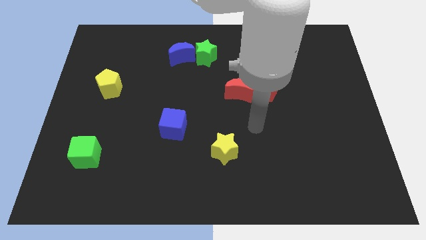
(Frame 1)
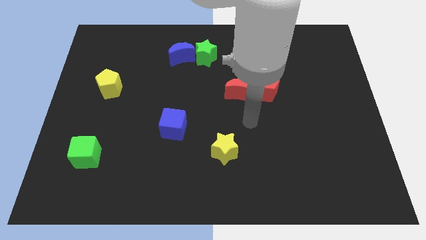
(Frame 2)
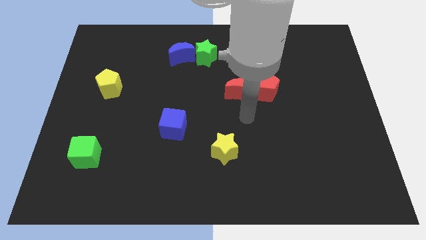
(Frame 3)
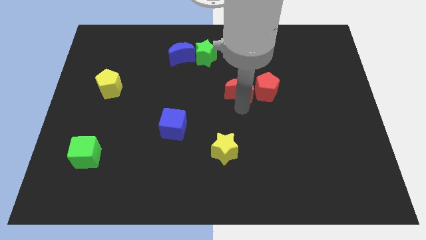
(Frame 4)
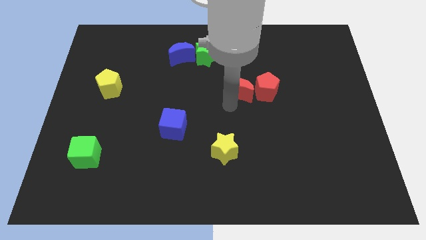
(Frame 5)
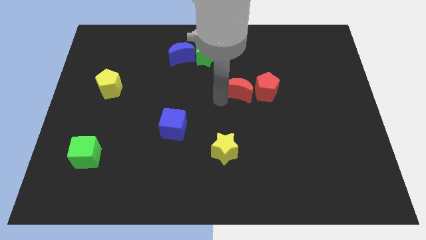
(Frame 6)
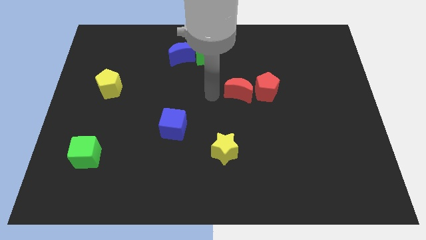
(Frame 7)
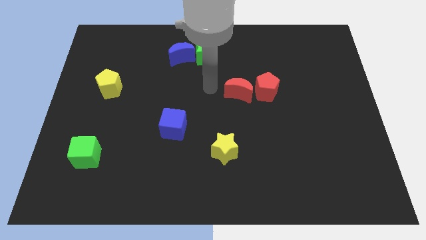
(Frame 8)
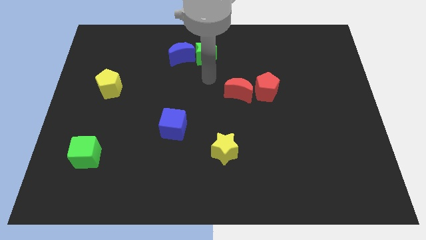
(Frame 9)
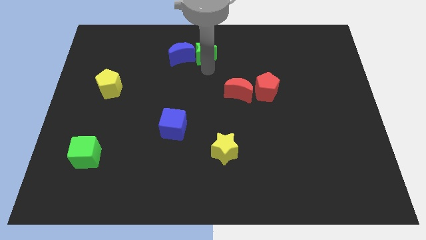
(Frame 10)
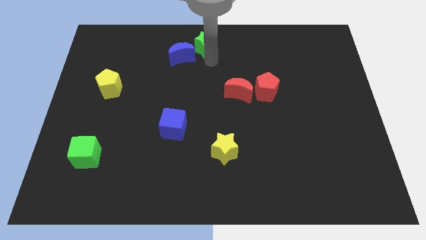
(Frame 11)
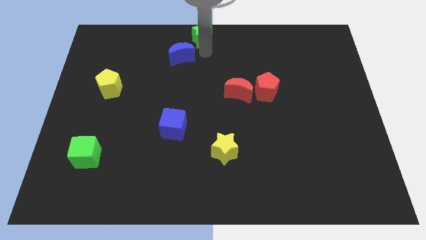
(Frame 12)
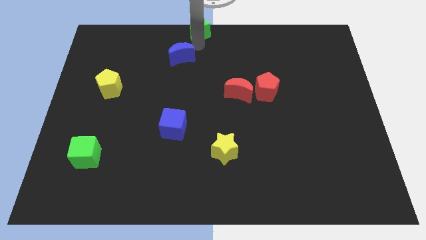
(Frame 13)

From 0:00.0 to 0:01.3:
pull the blue moon apart from the green star

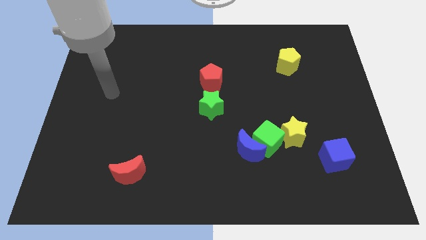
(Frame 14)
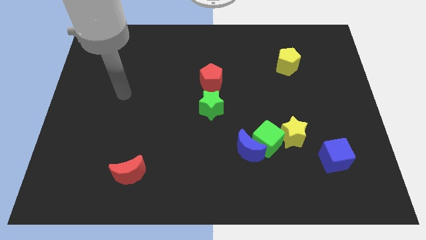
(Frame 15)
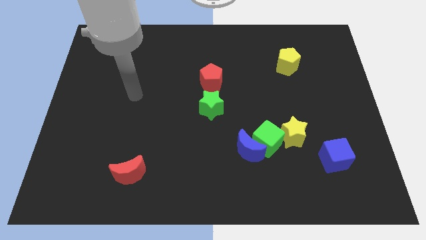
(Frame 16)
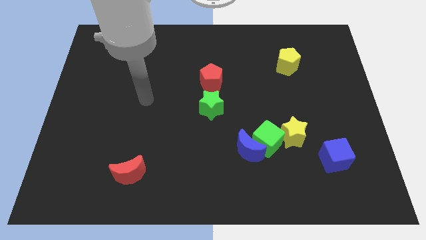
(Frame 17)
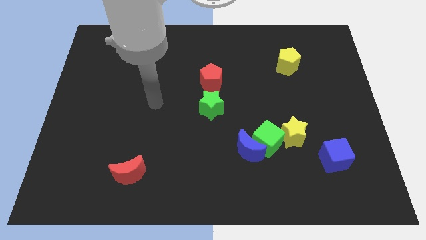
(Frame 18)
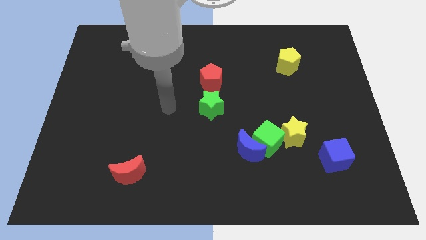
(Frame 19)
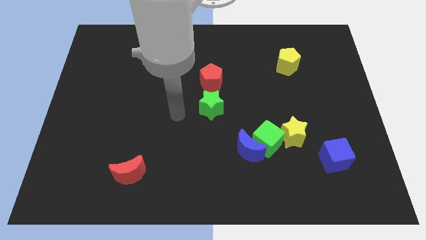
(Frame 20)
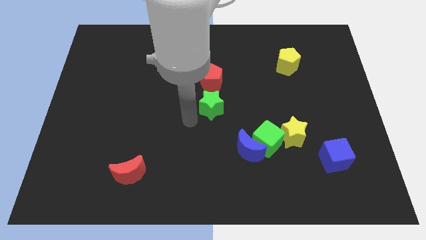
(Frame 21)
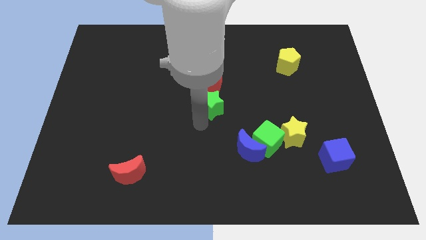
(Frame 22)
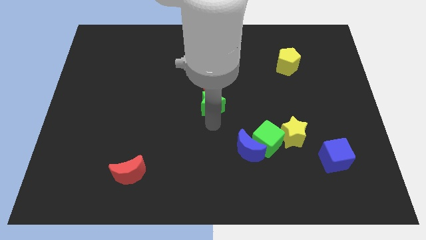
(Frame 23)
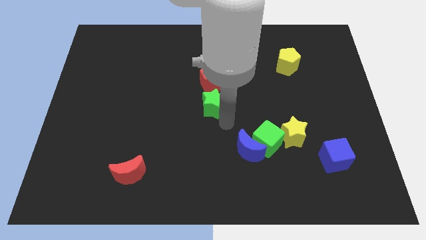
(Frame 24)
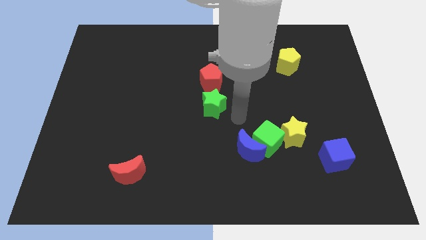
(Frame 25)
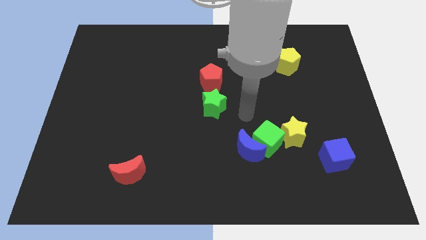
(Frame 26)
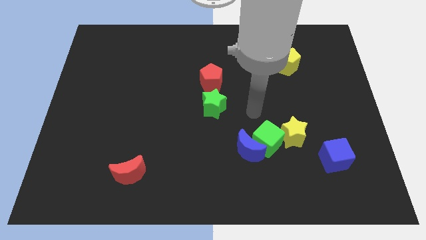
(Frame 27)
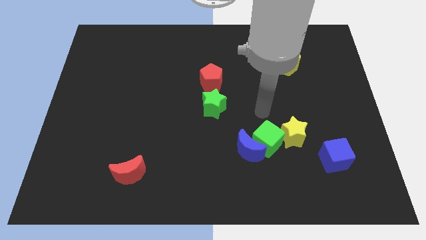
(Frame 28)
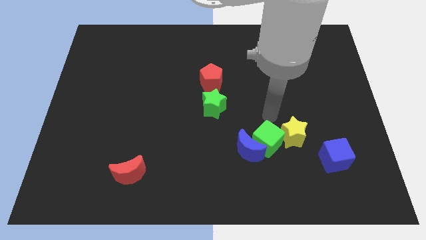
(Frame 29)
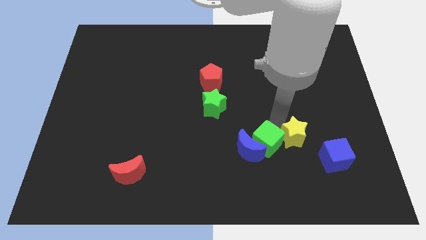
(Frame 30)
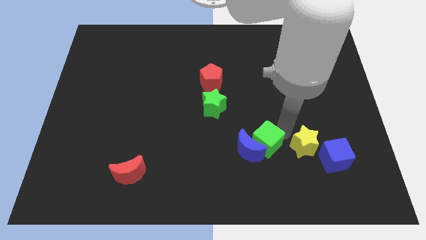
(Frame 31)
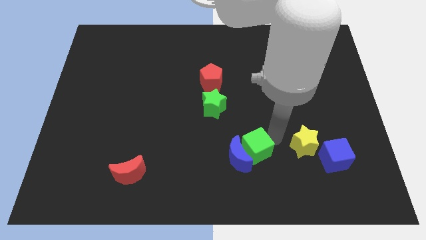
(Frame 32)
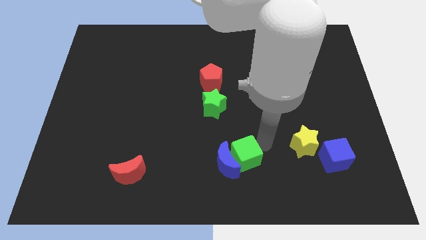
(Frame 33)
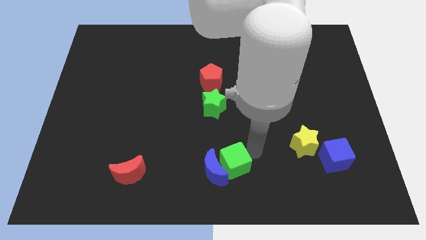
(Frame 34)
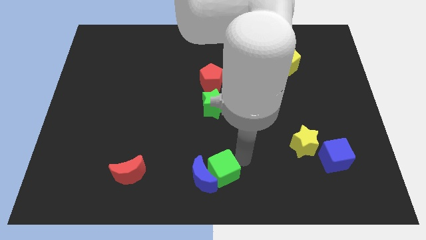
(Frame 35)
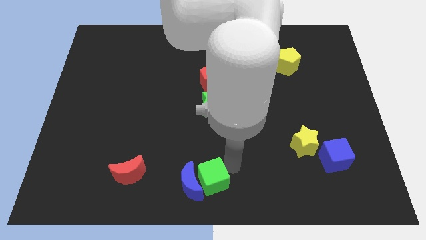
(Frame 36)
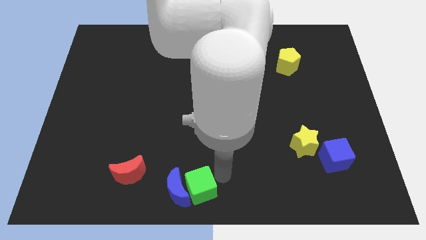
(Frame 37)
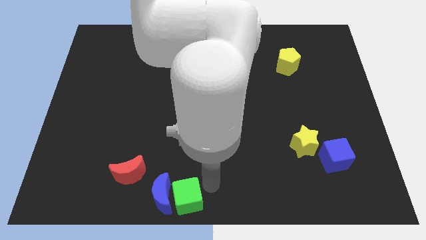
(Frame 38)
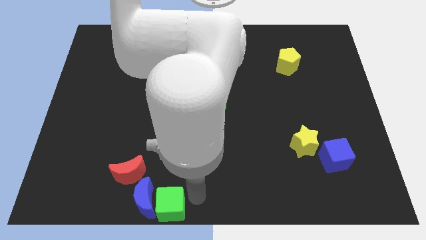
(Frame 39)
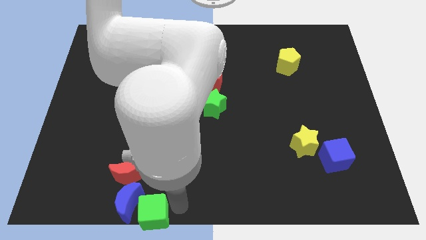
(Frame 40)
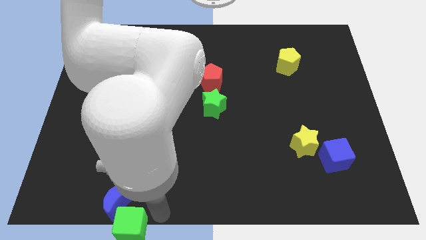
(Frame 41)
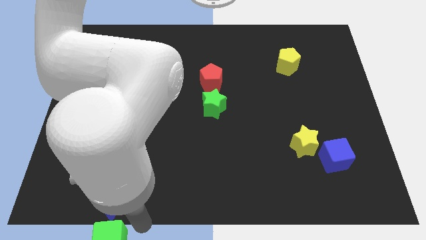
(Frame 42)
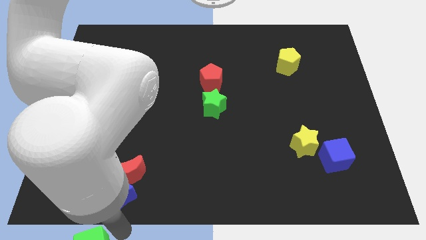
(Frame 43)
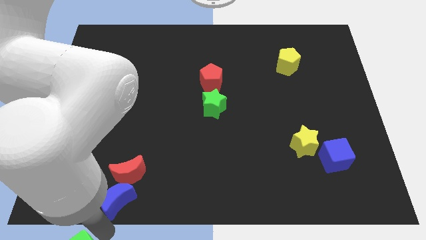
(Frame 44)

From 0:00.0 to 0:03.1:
move the blue moon away from the green cube

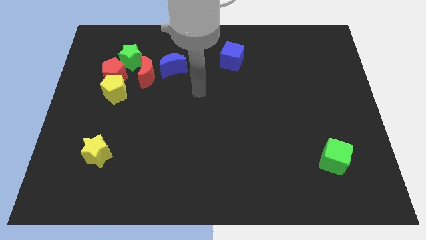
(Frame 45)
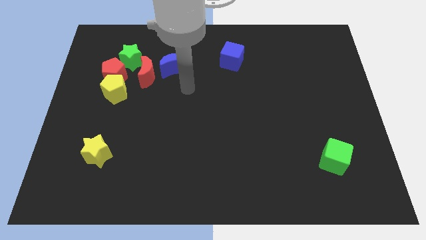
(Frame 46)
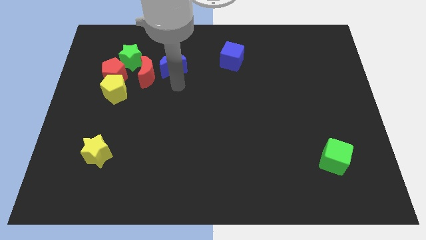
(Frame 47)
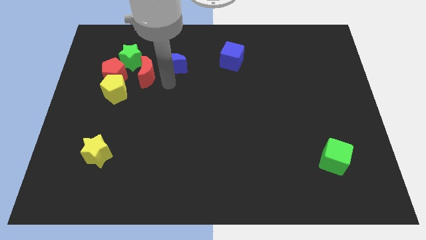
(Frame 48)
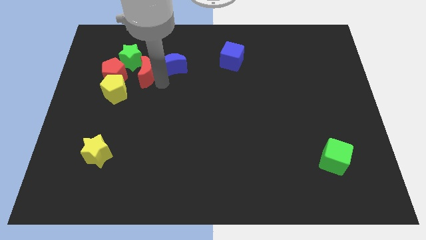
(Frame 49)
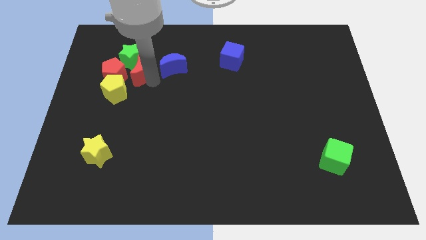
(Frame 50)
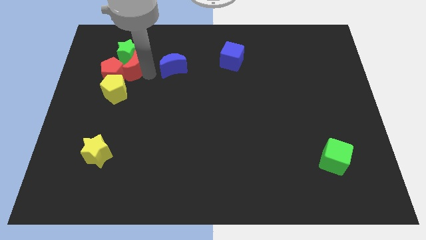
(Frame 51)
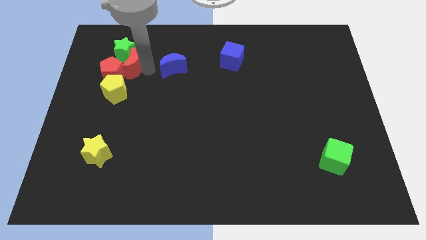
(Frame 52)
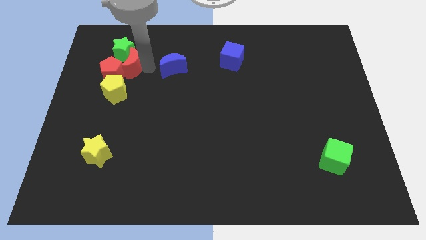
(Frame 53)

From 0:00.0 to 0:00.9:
move the blue moon away from the red moon

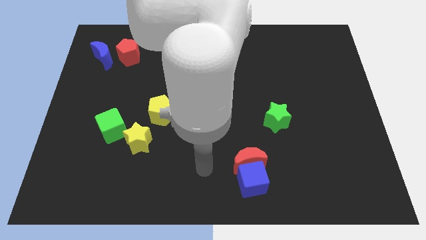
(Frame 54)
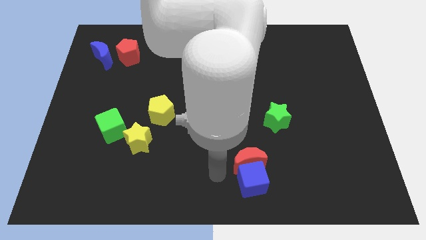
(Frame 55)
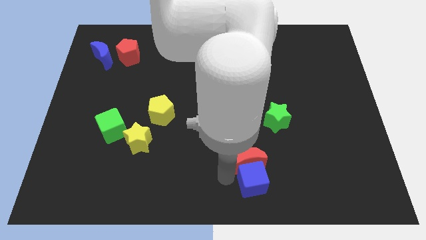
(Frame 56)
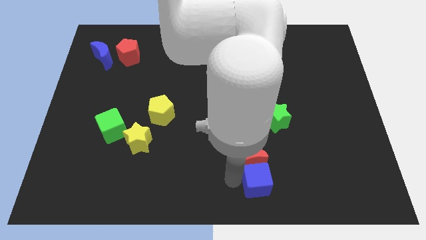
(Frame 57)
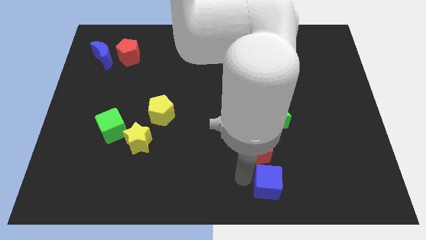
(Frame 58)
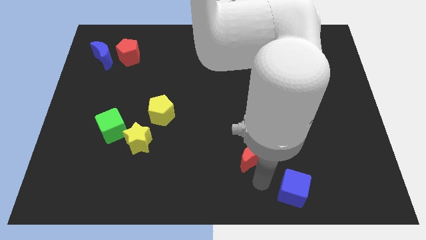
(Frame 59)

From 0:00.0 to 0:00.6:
move the red moon away from the blue cube

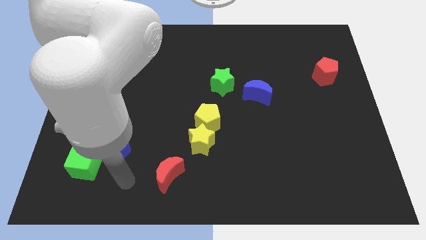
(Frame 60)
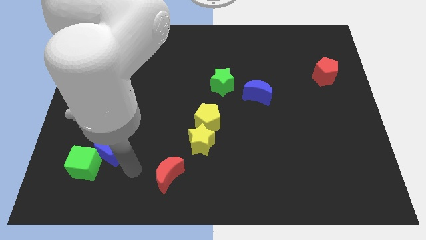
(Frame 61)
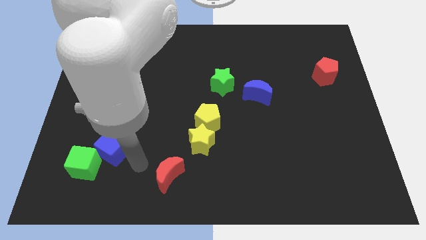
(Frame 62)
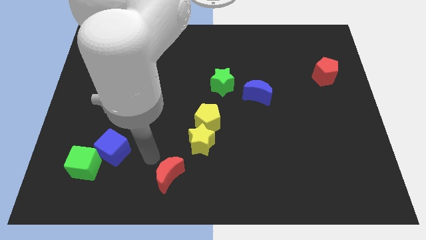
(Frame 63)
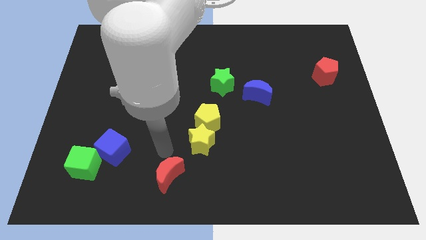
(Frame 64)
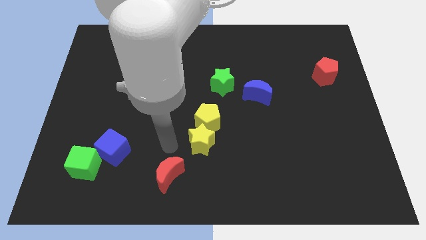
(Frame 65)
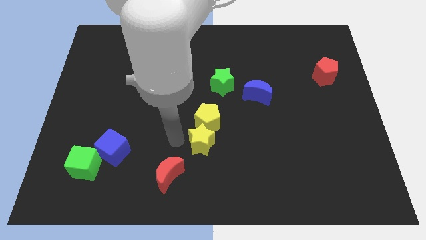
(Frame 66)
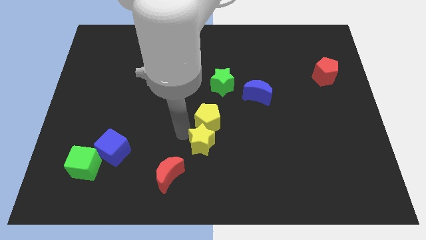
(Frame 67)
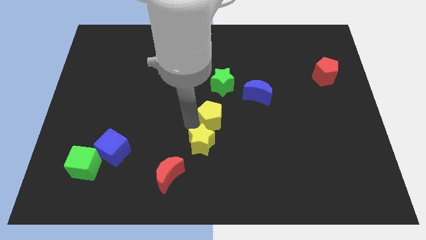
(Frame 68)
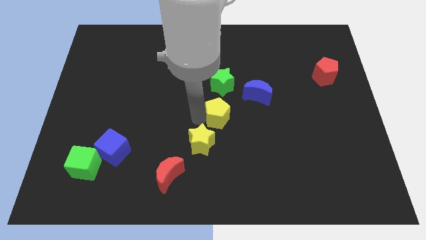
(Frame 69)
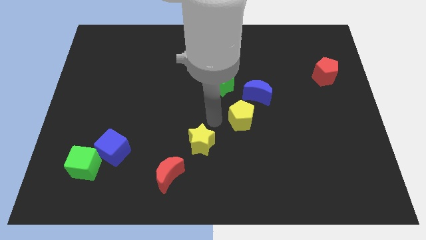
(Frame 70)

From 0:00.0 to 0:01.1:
separate the yellow star from the yellow pentagon

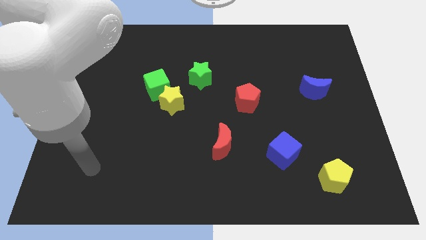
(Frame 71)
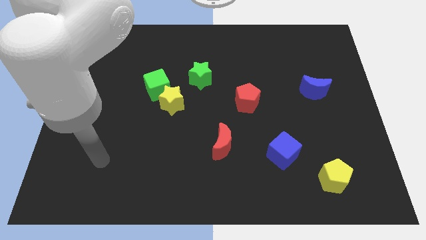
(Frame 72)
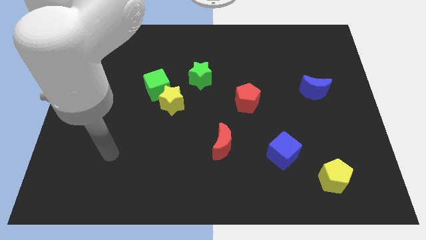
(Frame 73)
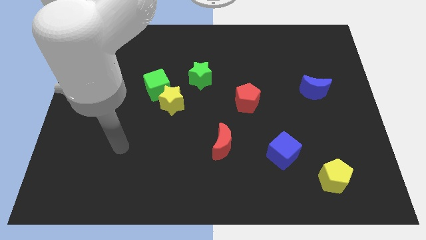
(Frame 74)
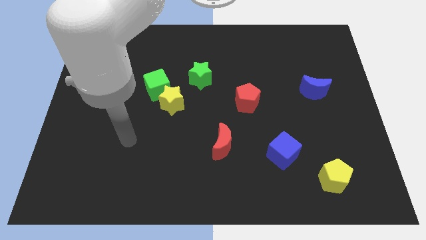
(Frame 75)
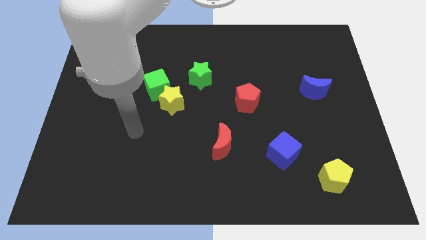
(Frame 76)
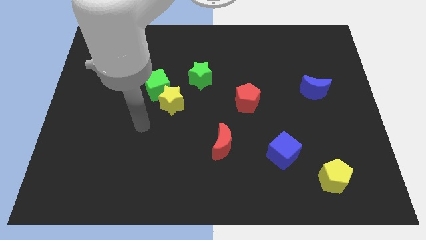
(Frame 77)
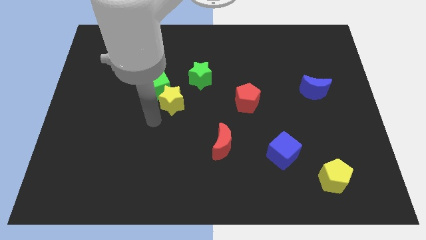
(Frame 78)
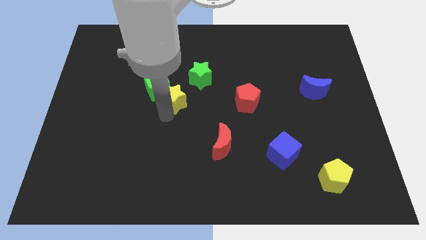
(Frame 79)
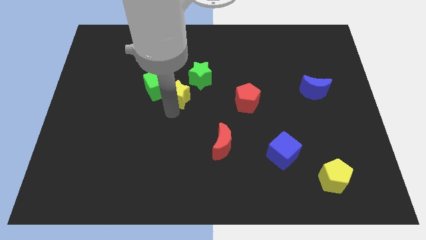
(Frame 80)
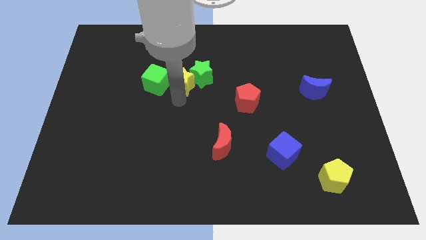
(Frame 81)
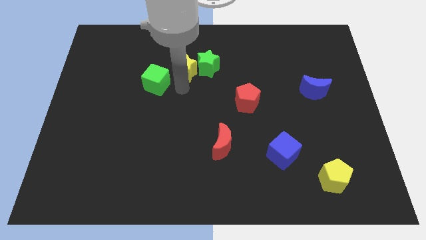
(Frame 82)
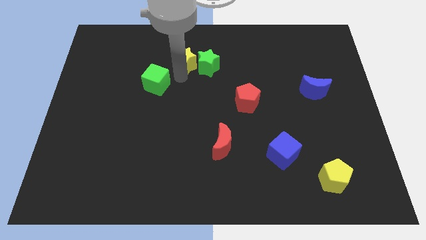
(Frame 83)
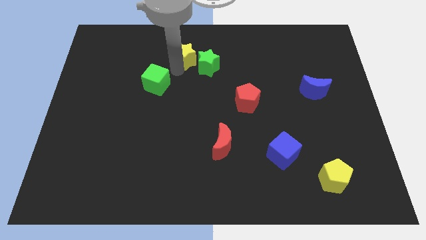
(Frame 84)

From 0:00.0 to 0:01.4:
pull the green cube apart from the yellow star

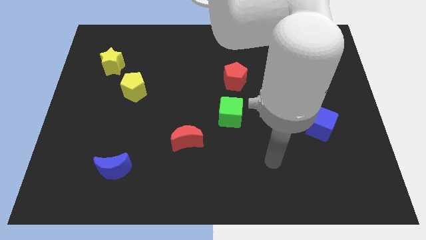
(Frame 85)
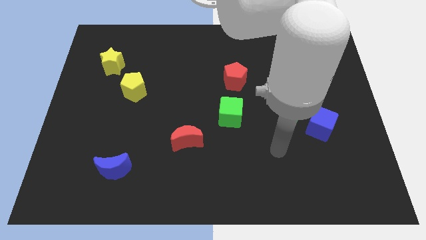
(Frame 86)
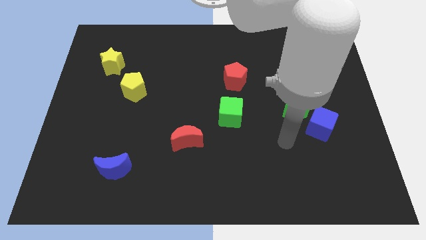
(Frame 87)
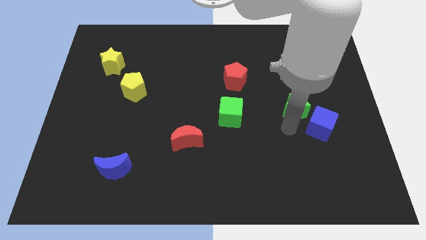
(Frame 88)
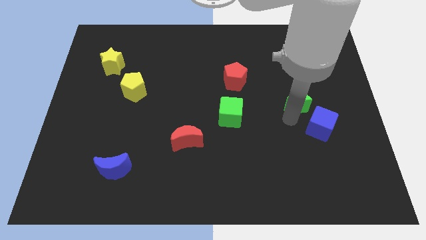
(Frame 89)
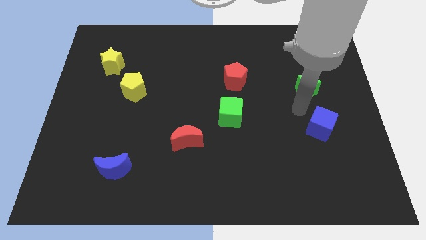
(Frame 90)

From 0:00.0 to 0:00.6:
separate the blue cube from the green star

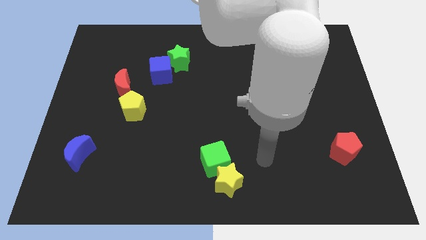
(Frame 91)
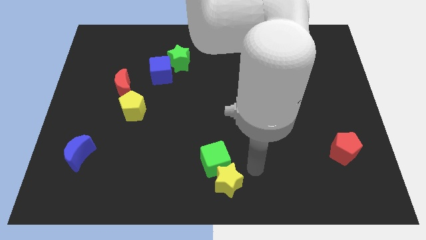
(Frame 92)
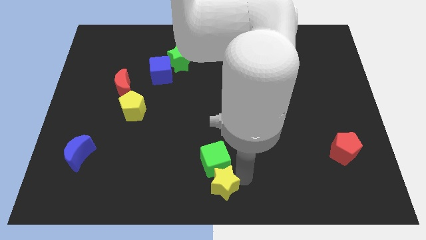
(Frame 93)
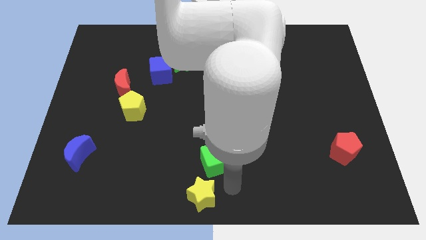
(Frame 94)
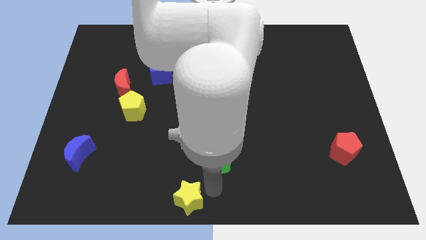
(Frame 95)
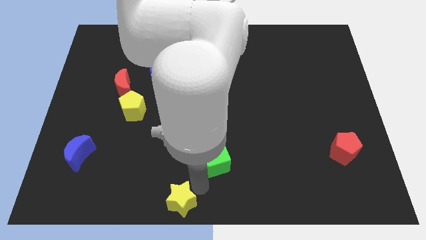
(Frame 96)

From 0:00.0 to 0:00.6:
move the green cube away from the yellow star
